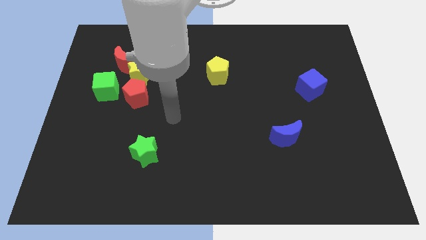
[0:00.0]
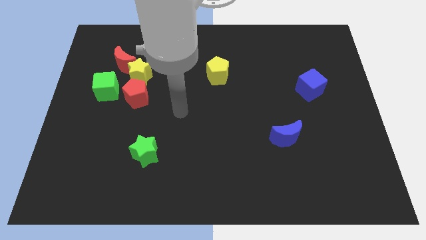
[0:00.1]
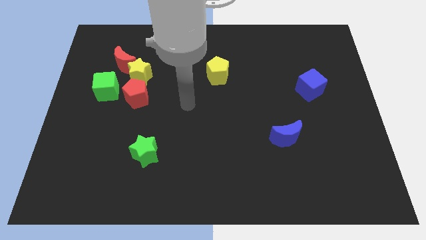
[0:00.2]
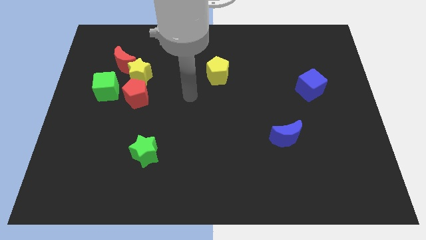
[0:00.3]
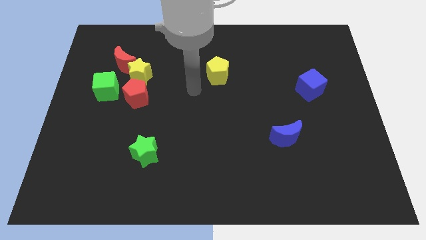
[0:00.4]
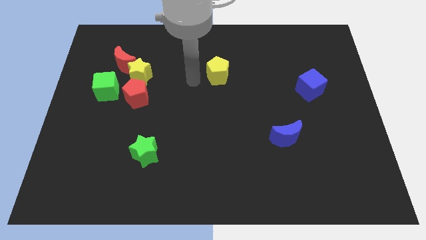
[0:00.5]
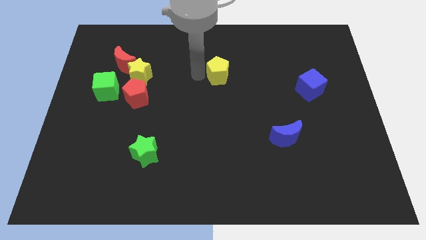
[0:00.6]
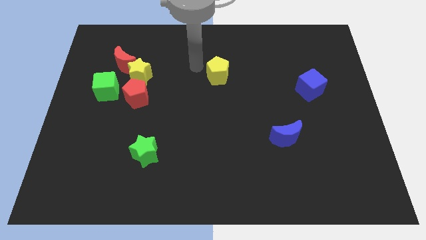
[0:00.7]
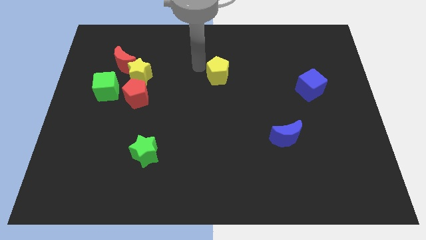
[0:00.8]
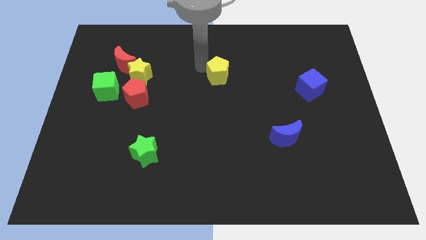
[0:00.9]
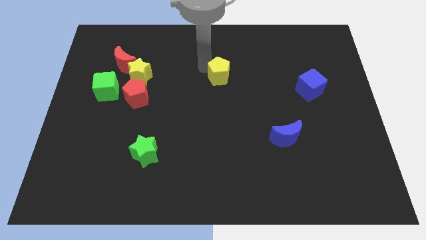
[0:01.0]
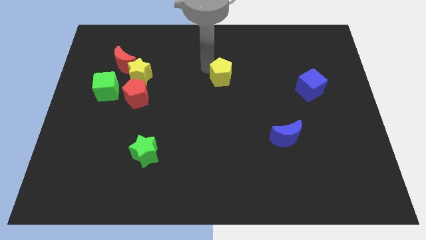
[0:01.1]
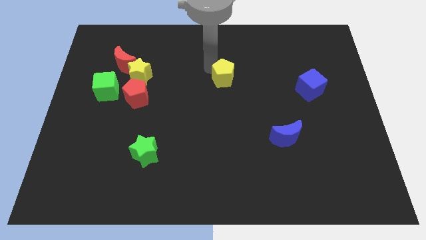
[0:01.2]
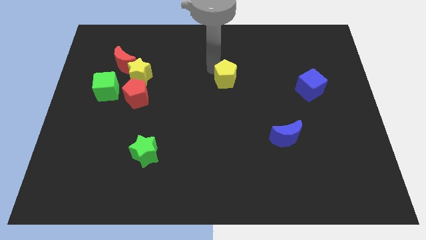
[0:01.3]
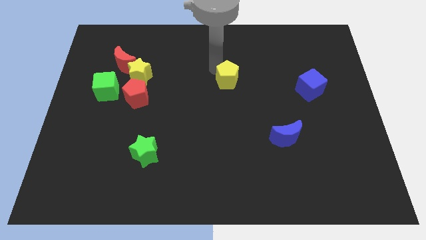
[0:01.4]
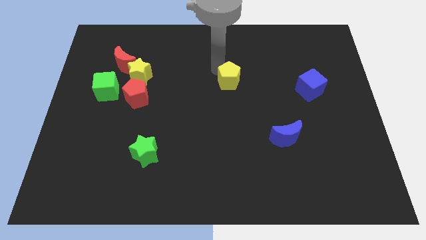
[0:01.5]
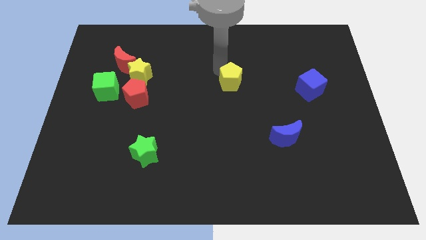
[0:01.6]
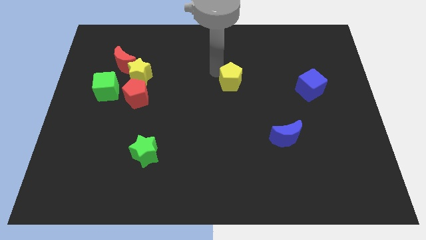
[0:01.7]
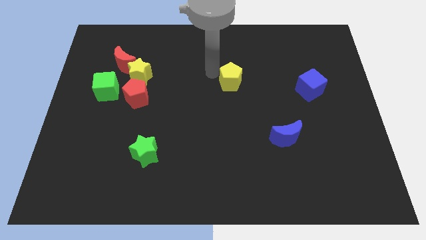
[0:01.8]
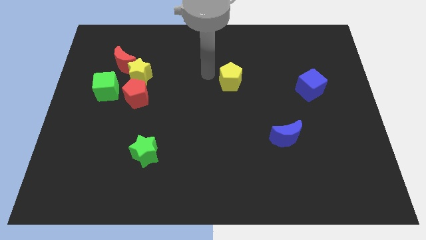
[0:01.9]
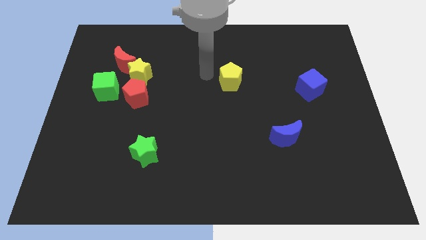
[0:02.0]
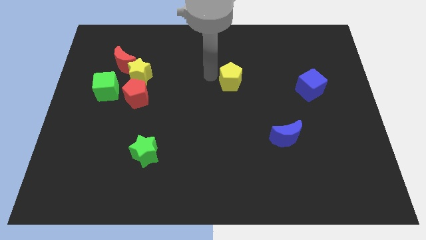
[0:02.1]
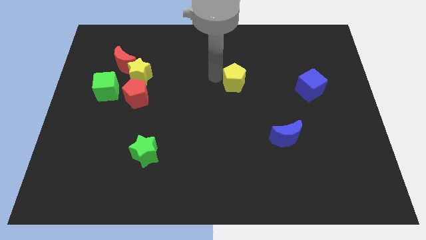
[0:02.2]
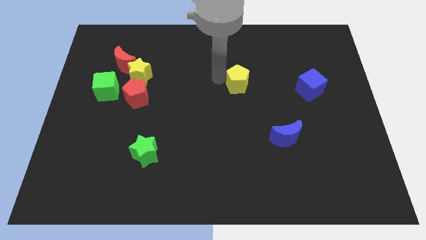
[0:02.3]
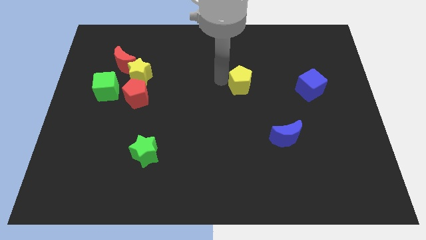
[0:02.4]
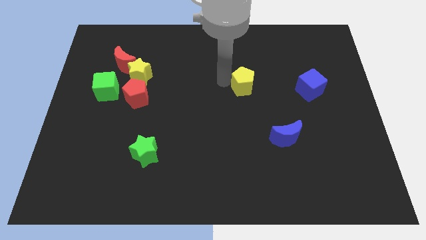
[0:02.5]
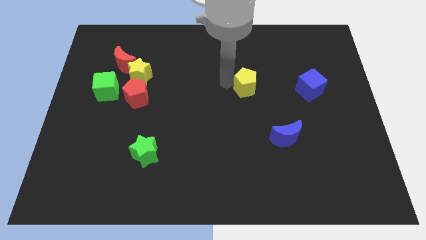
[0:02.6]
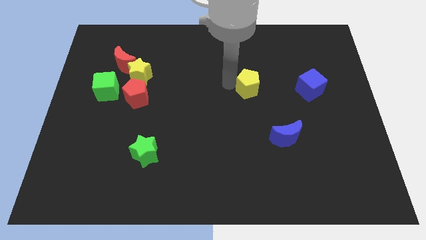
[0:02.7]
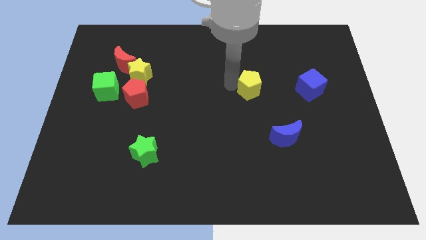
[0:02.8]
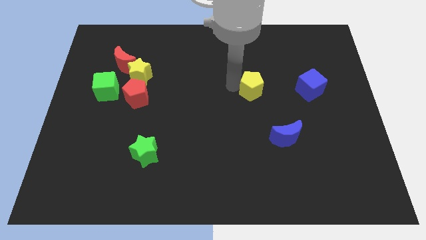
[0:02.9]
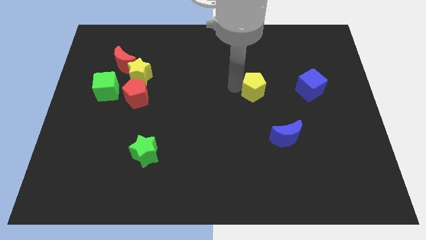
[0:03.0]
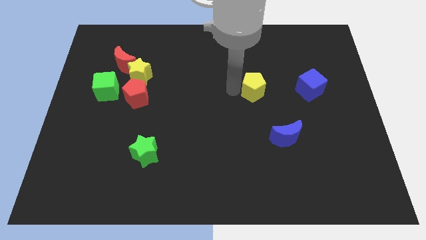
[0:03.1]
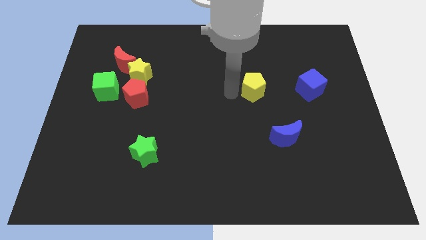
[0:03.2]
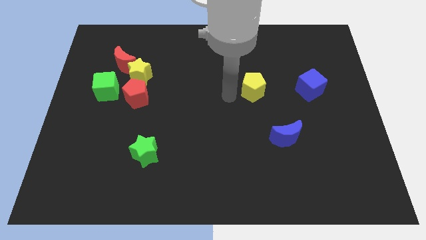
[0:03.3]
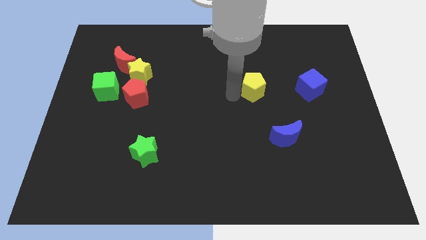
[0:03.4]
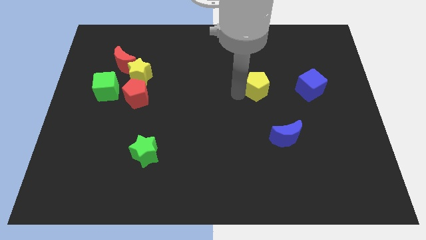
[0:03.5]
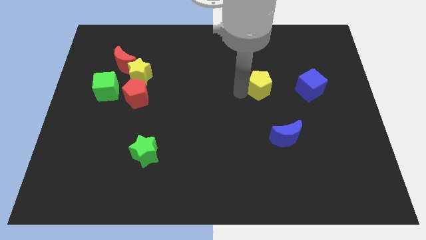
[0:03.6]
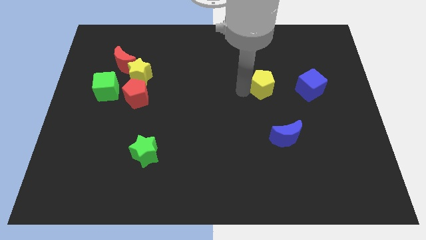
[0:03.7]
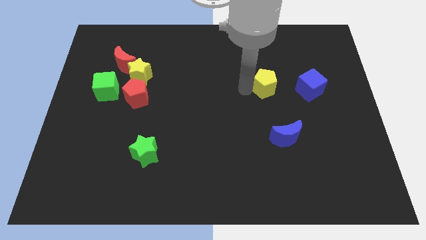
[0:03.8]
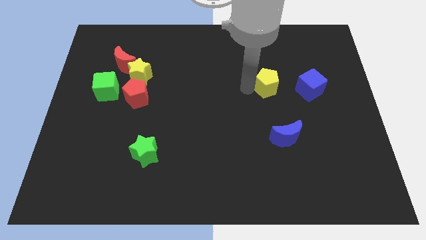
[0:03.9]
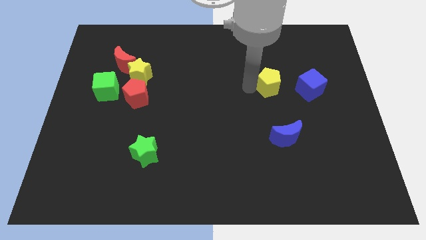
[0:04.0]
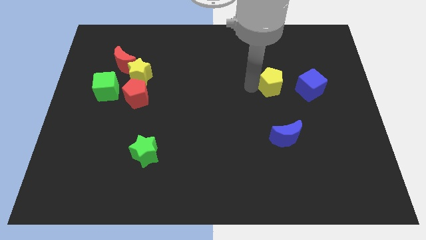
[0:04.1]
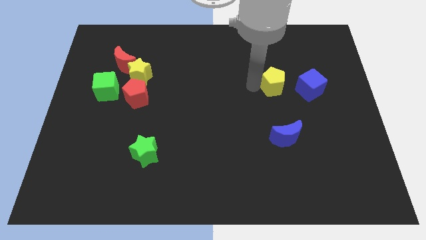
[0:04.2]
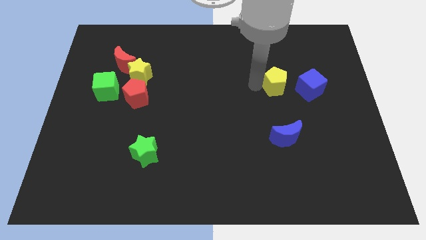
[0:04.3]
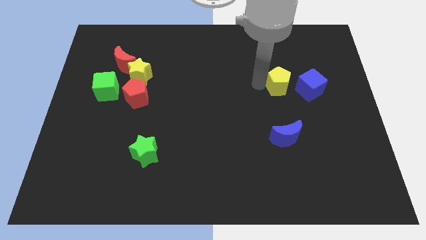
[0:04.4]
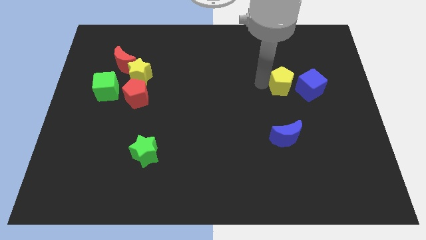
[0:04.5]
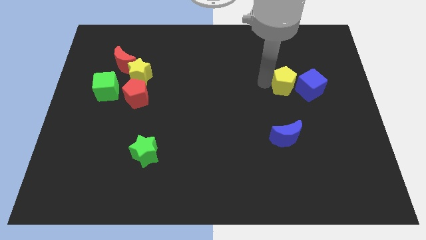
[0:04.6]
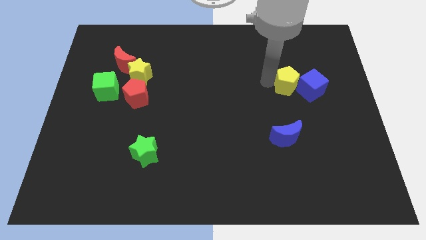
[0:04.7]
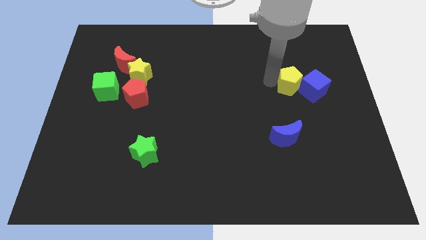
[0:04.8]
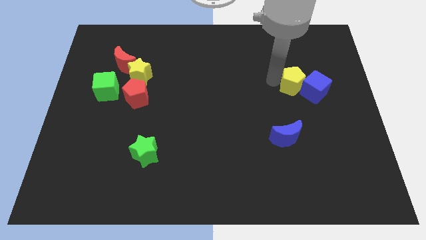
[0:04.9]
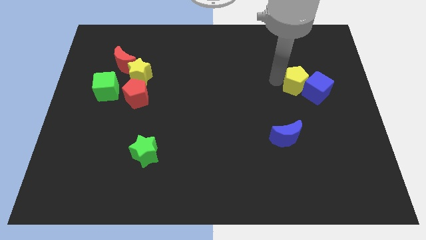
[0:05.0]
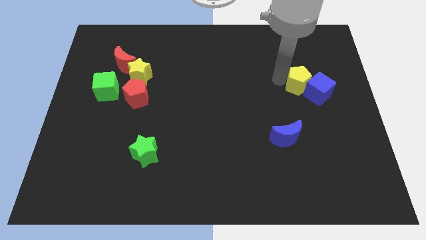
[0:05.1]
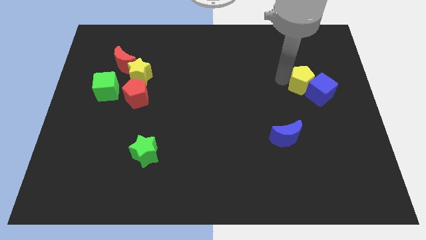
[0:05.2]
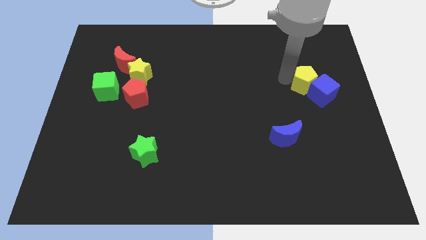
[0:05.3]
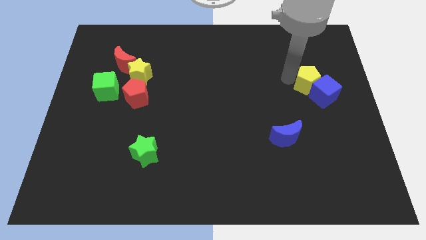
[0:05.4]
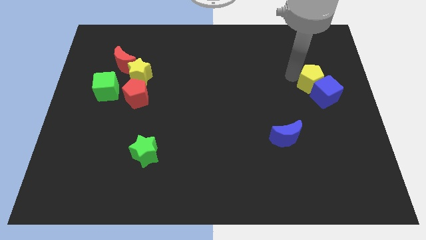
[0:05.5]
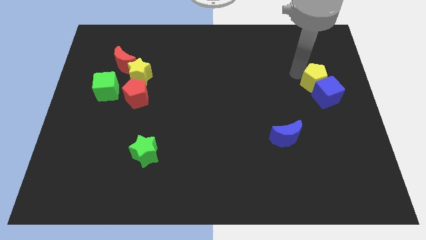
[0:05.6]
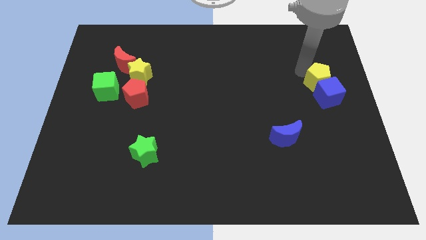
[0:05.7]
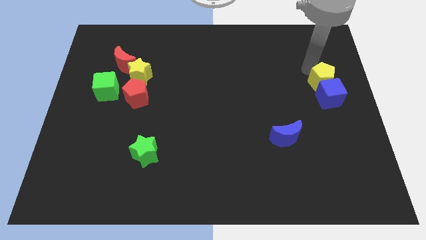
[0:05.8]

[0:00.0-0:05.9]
put the yellow pentagon to the right side of the board
